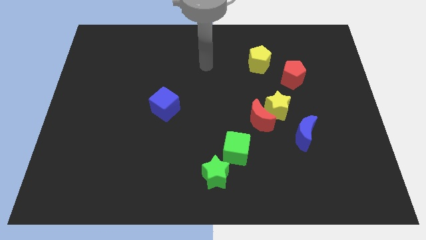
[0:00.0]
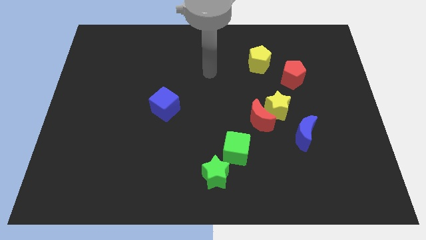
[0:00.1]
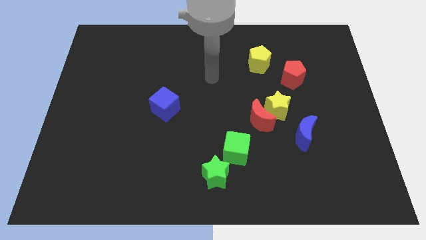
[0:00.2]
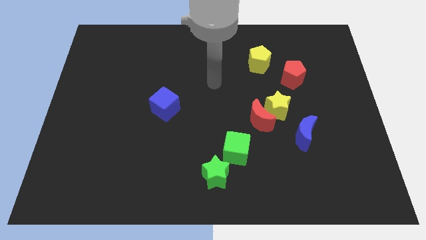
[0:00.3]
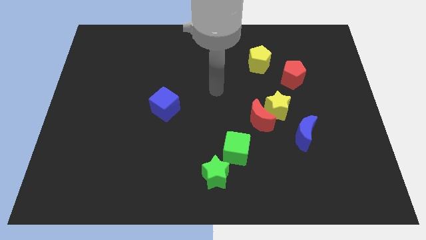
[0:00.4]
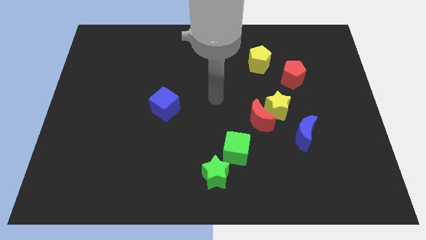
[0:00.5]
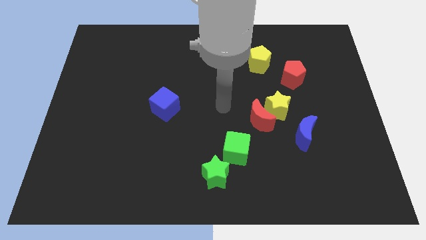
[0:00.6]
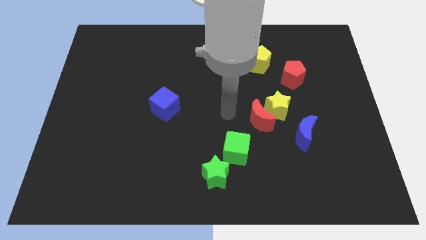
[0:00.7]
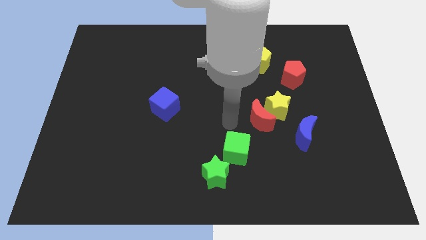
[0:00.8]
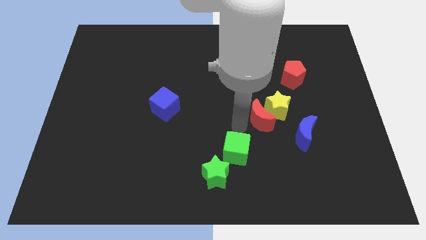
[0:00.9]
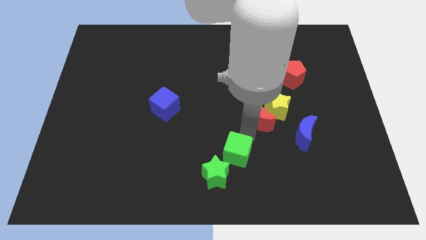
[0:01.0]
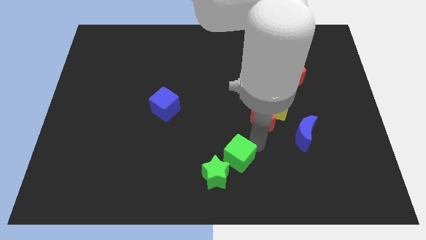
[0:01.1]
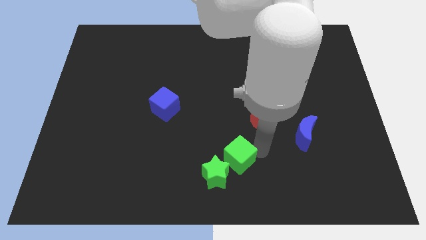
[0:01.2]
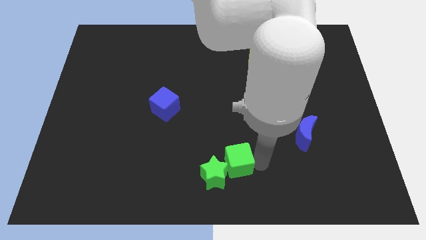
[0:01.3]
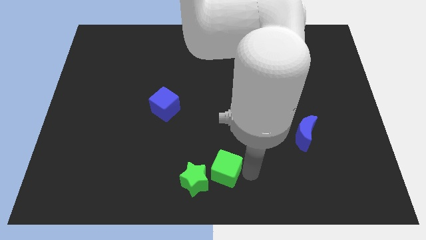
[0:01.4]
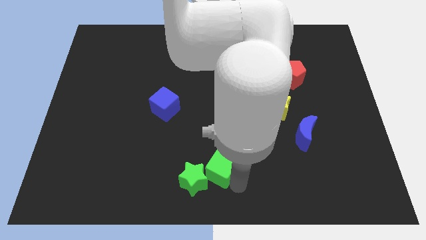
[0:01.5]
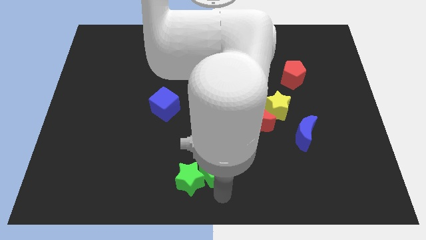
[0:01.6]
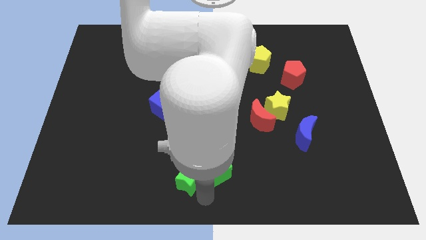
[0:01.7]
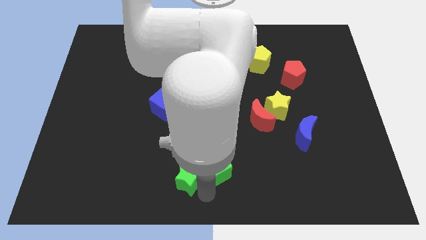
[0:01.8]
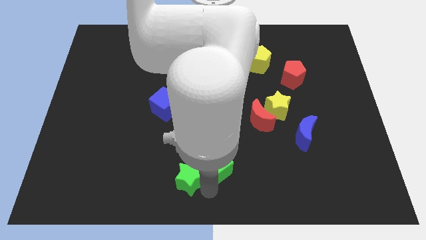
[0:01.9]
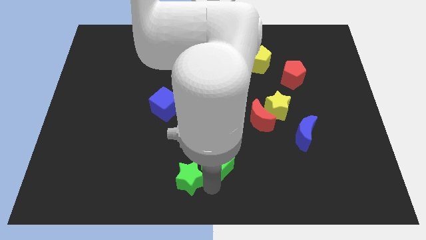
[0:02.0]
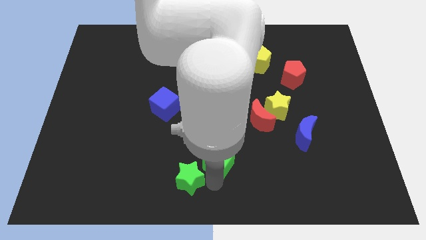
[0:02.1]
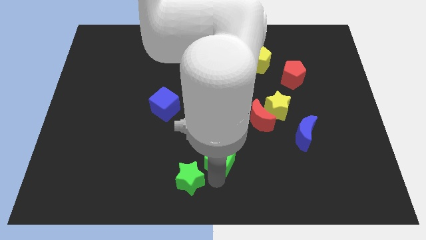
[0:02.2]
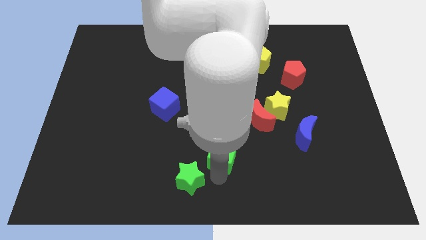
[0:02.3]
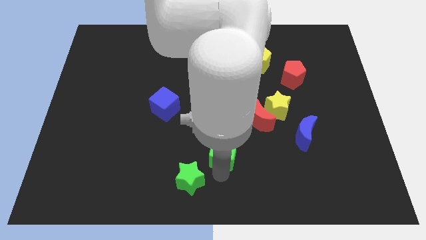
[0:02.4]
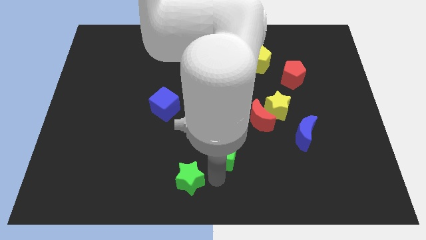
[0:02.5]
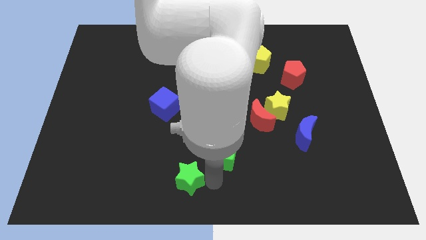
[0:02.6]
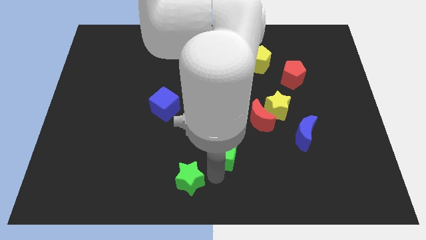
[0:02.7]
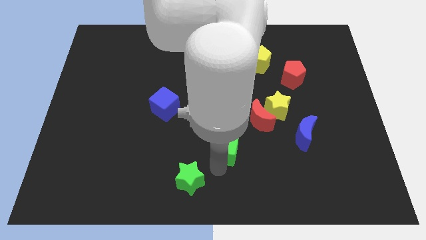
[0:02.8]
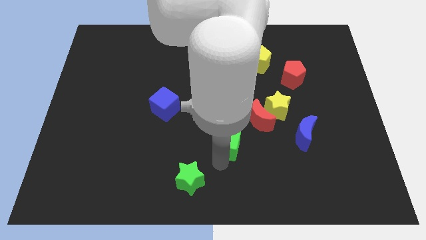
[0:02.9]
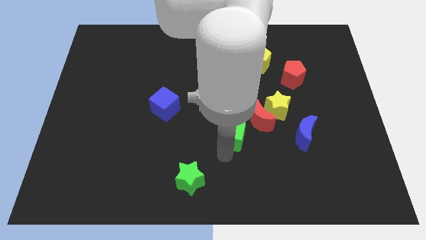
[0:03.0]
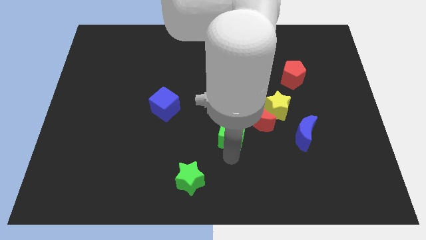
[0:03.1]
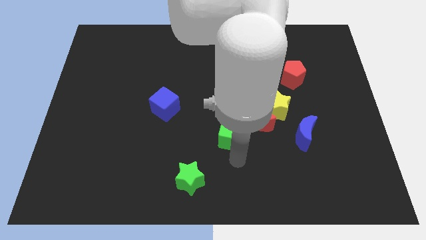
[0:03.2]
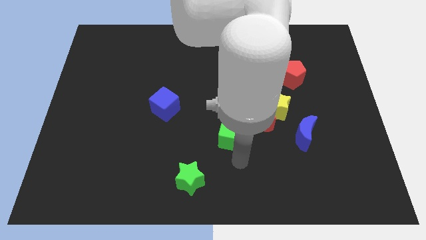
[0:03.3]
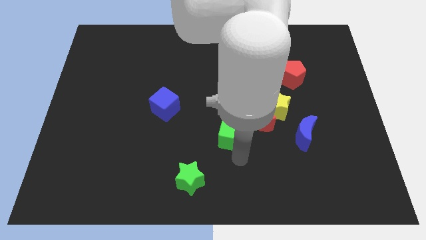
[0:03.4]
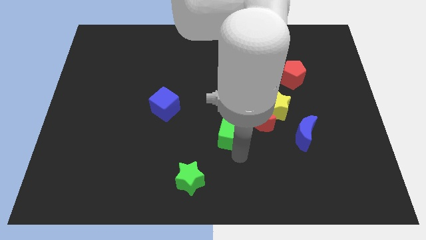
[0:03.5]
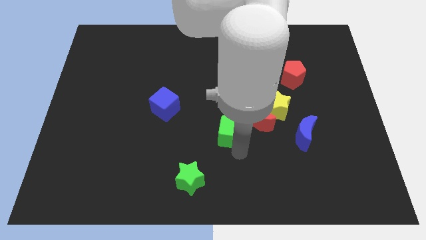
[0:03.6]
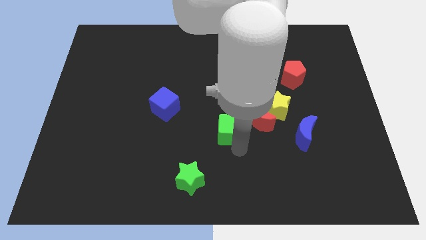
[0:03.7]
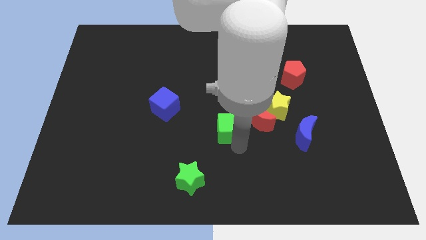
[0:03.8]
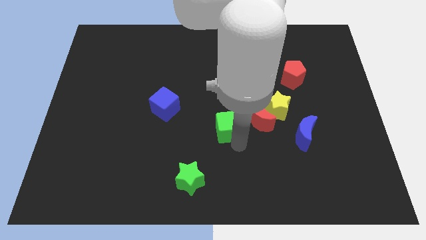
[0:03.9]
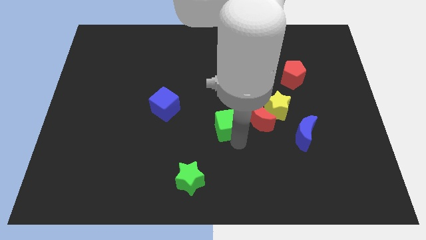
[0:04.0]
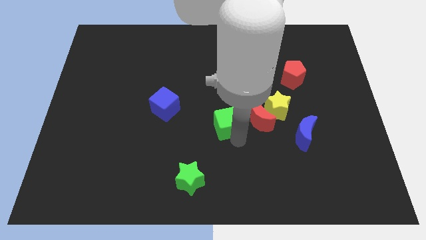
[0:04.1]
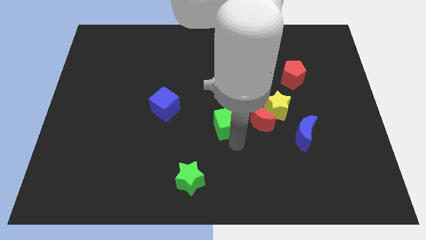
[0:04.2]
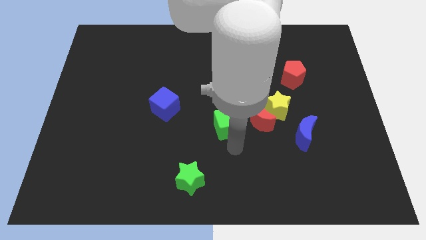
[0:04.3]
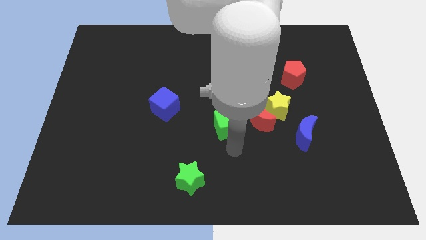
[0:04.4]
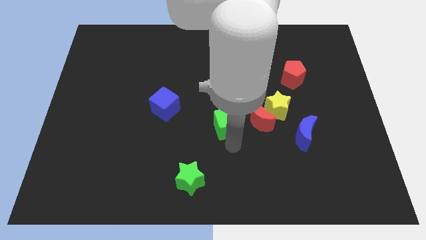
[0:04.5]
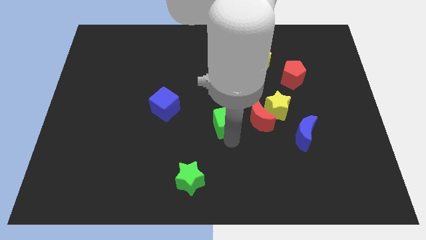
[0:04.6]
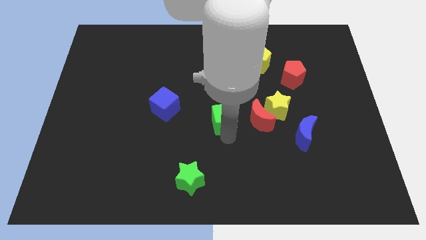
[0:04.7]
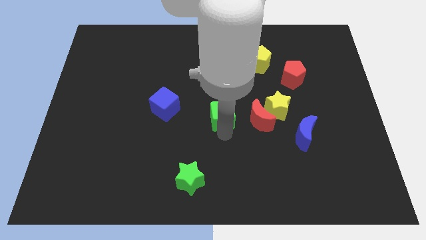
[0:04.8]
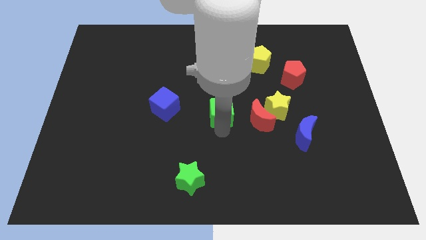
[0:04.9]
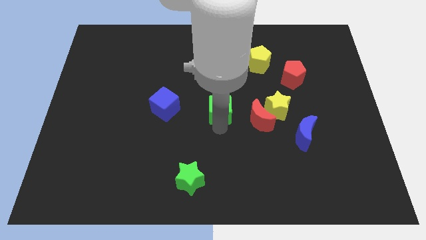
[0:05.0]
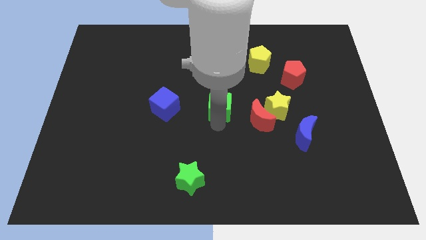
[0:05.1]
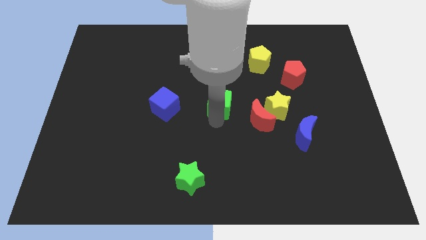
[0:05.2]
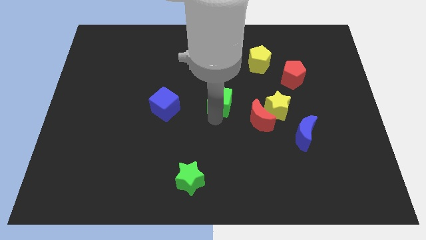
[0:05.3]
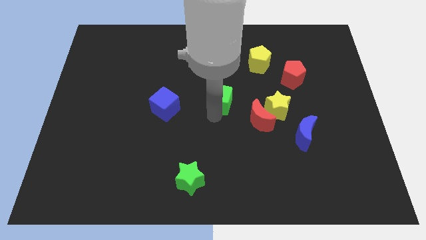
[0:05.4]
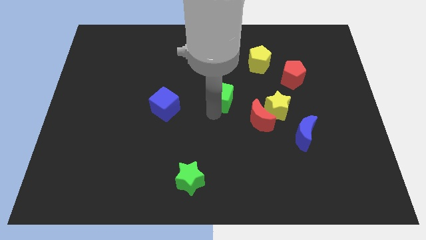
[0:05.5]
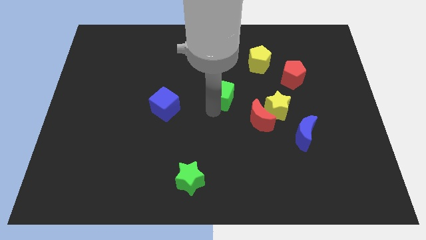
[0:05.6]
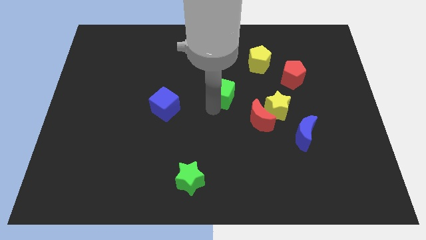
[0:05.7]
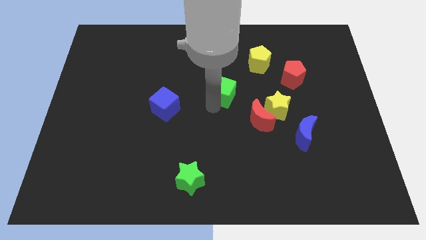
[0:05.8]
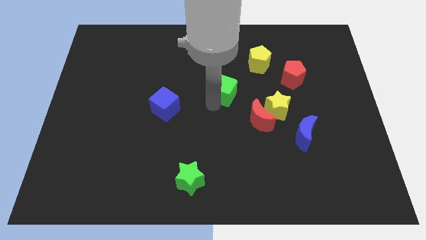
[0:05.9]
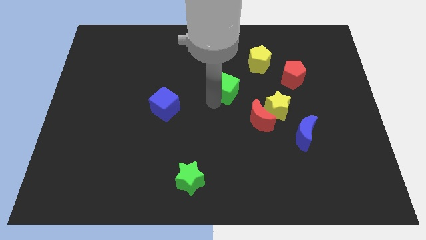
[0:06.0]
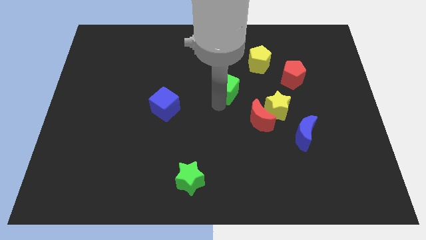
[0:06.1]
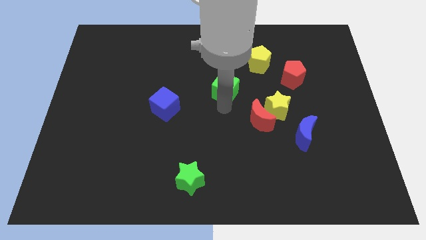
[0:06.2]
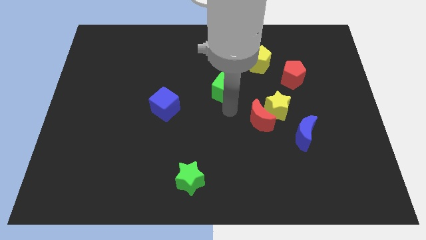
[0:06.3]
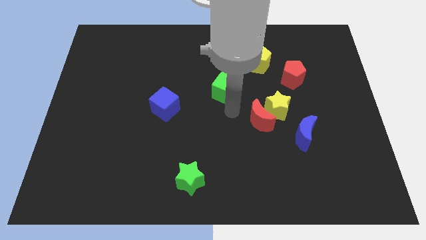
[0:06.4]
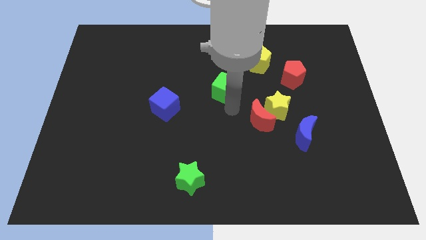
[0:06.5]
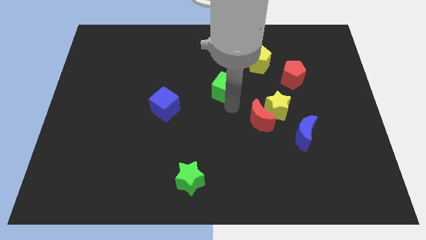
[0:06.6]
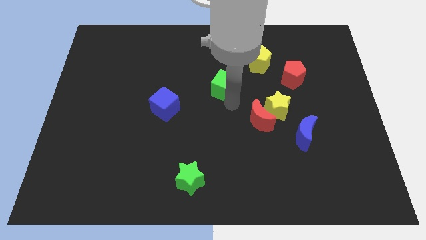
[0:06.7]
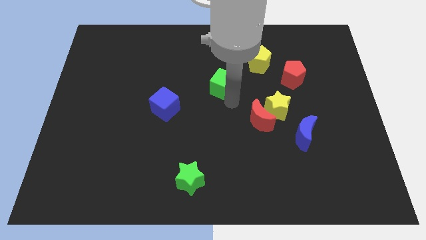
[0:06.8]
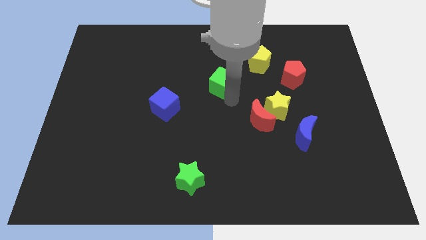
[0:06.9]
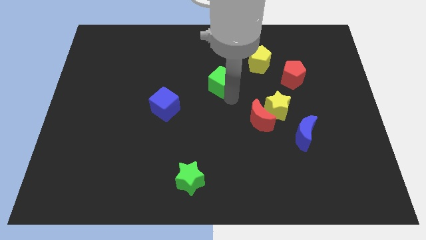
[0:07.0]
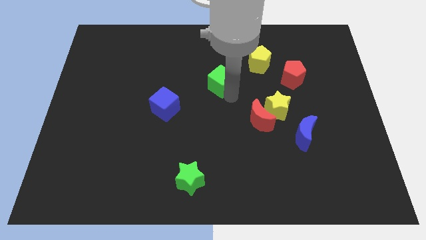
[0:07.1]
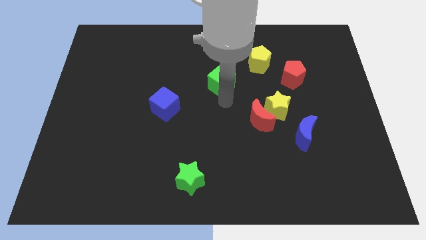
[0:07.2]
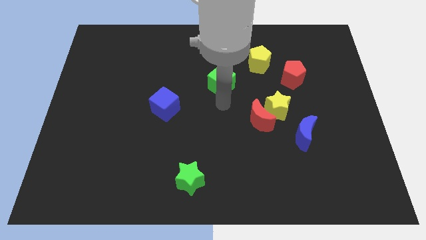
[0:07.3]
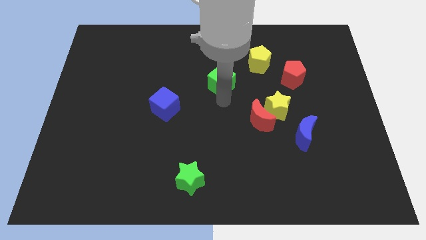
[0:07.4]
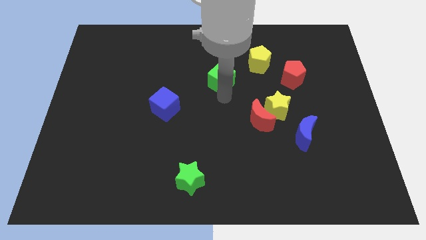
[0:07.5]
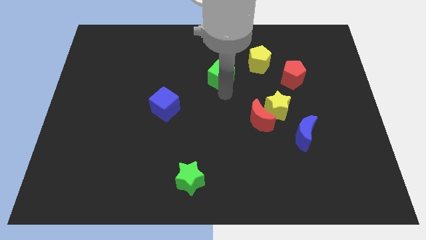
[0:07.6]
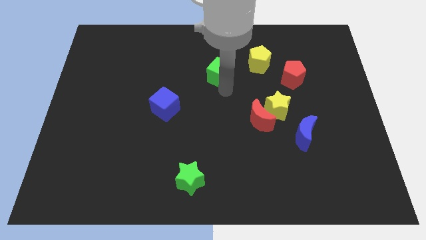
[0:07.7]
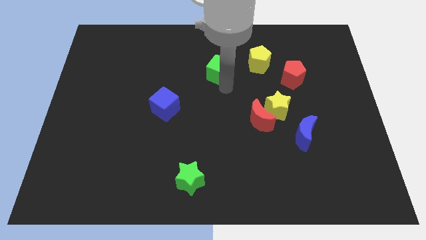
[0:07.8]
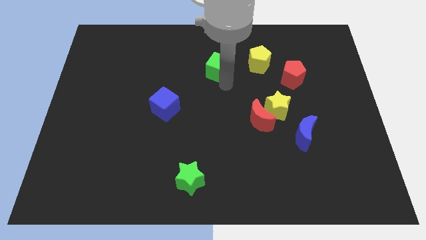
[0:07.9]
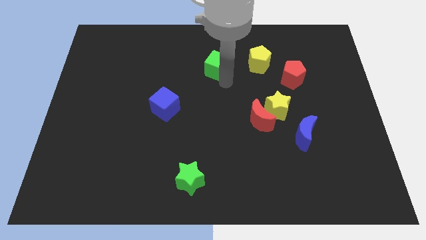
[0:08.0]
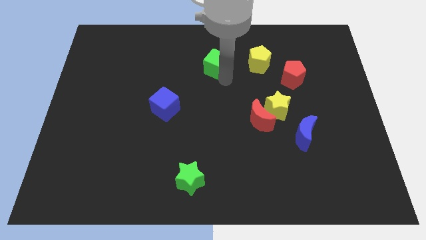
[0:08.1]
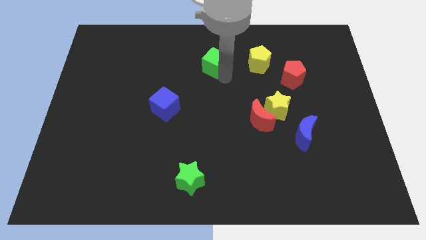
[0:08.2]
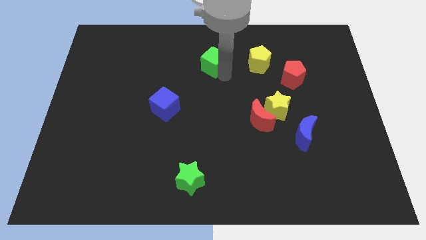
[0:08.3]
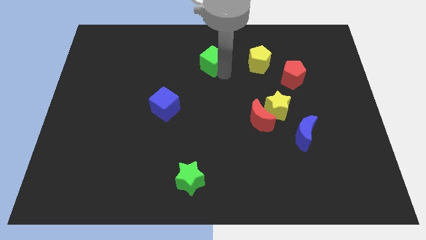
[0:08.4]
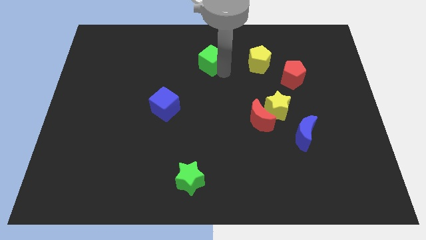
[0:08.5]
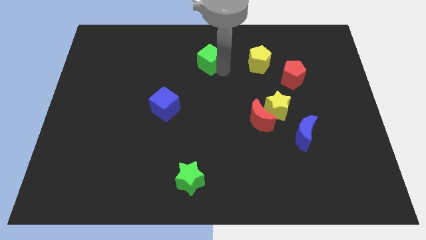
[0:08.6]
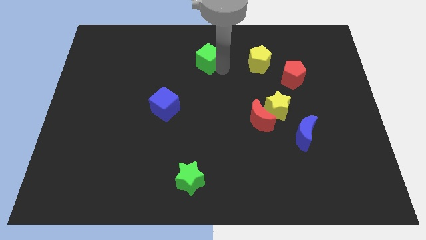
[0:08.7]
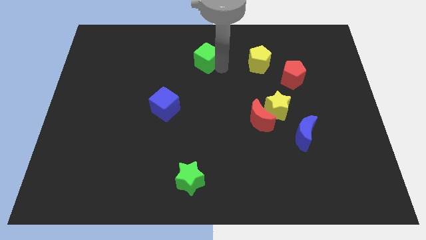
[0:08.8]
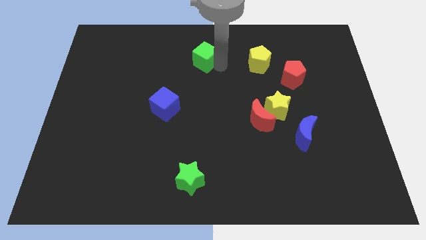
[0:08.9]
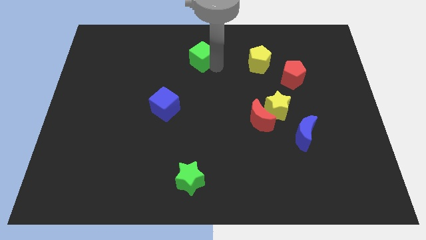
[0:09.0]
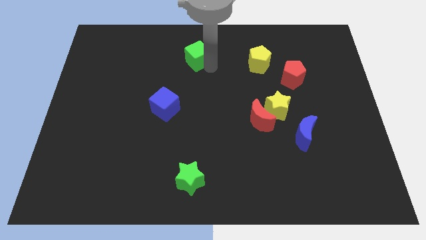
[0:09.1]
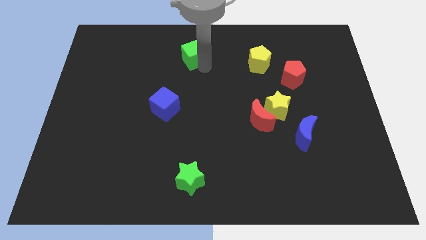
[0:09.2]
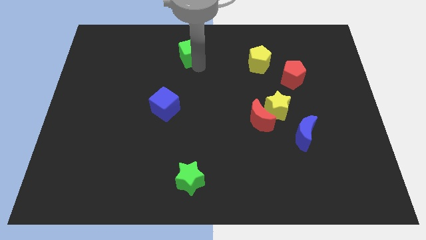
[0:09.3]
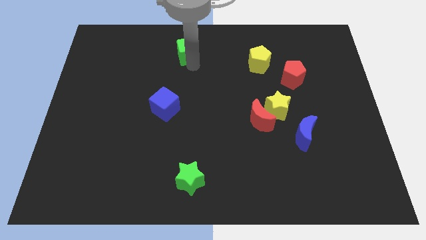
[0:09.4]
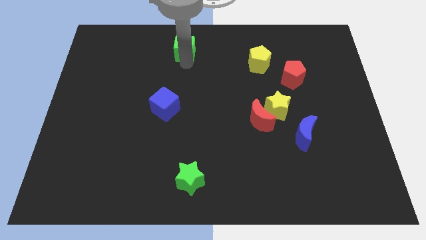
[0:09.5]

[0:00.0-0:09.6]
put the green cube to the top
